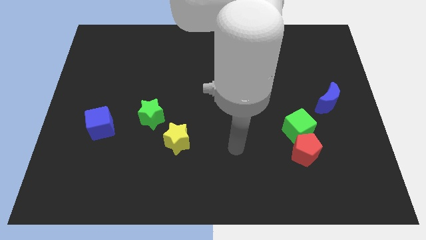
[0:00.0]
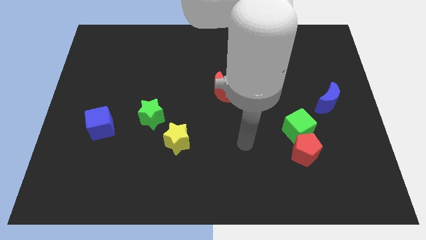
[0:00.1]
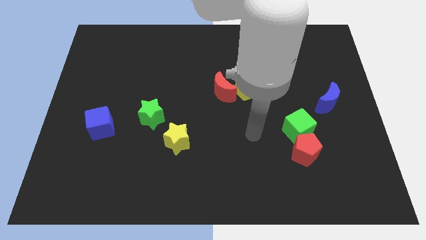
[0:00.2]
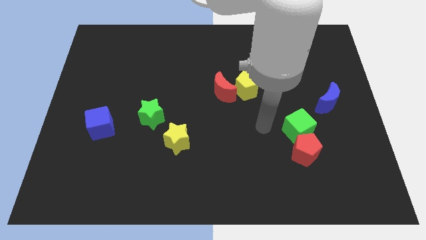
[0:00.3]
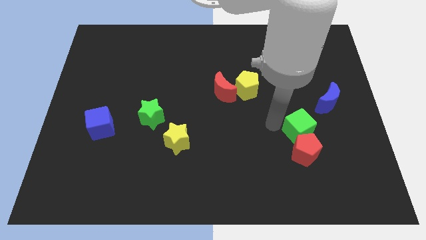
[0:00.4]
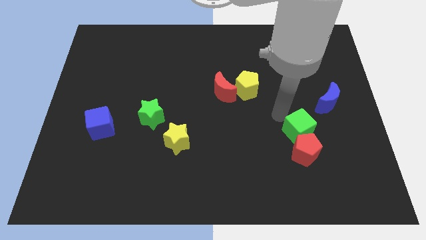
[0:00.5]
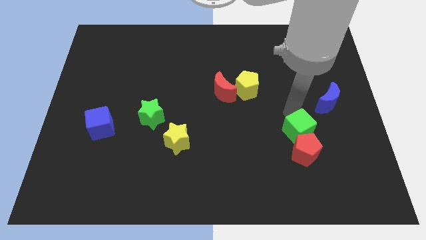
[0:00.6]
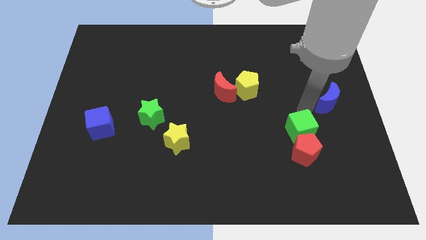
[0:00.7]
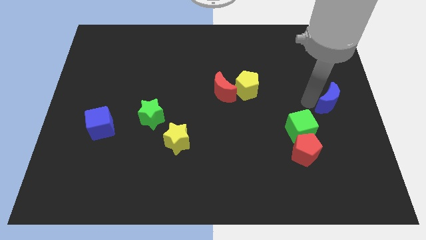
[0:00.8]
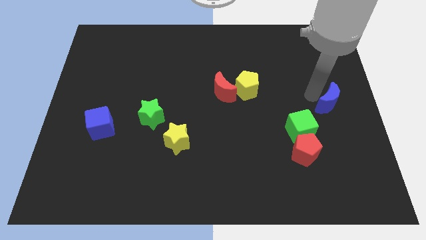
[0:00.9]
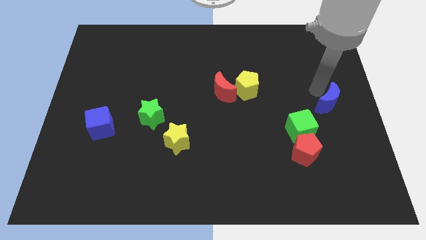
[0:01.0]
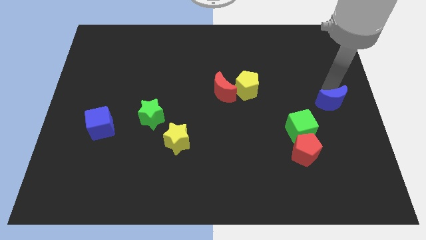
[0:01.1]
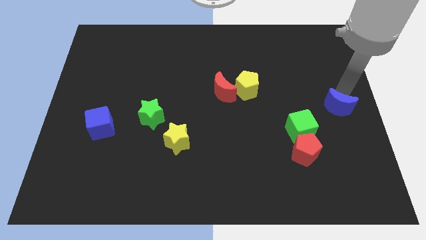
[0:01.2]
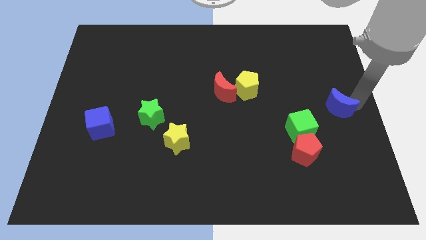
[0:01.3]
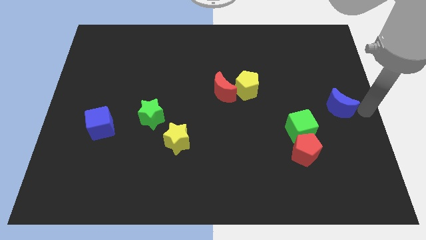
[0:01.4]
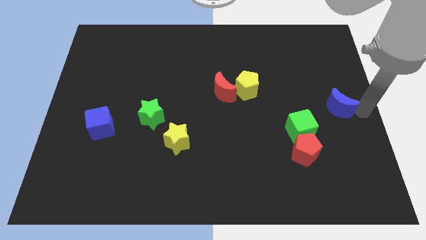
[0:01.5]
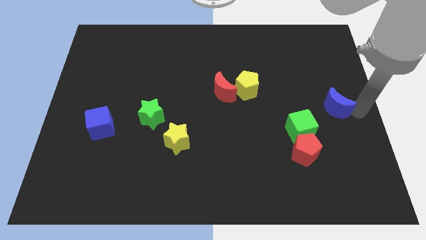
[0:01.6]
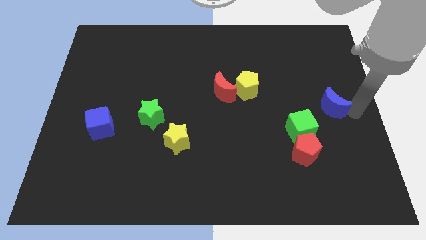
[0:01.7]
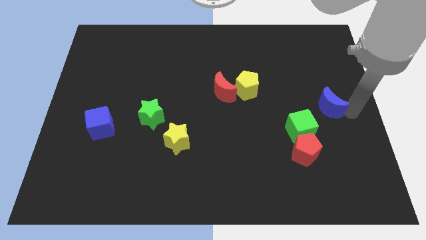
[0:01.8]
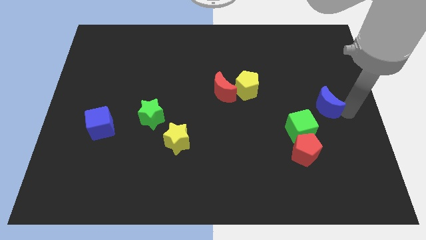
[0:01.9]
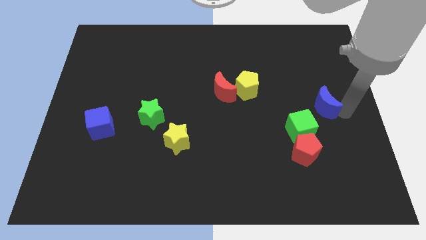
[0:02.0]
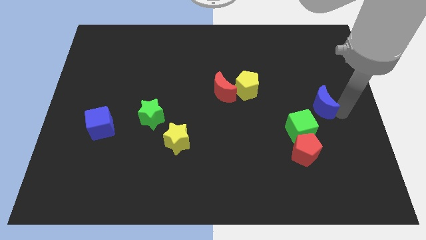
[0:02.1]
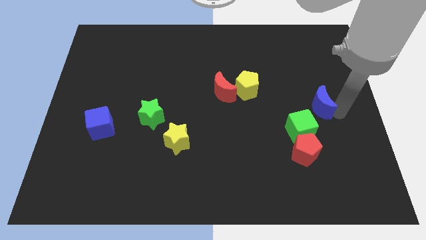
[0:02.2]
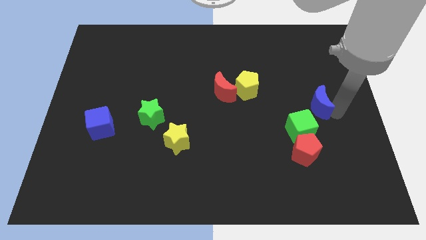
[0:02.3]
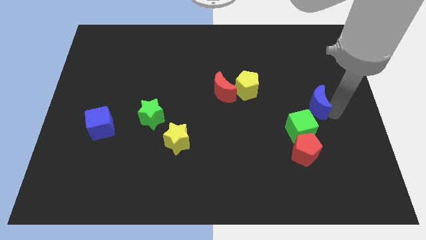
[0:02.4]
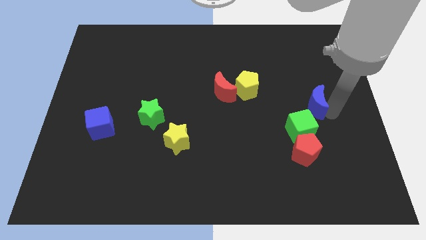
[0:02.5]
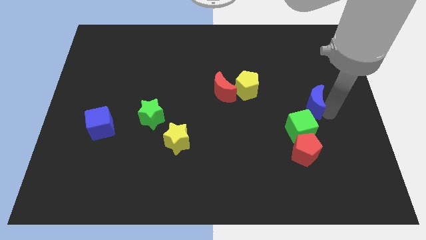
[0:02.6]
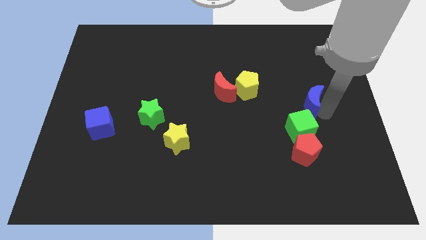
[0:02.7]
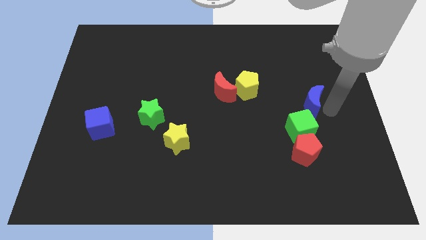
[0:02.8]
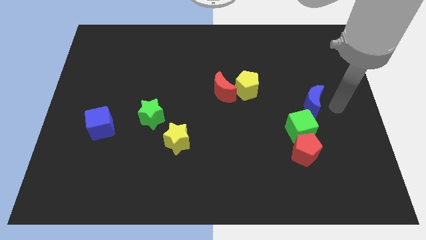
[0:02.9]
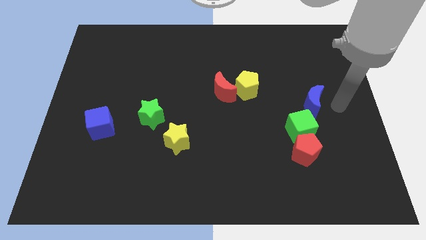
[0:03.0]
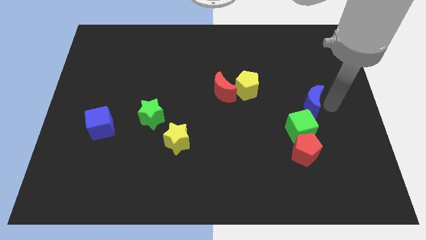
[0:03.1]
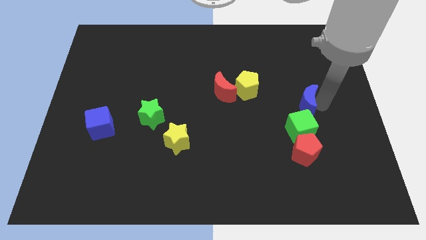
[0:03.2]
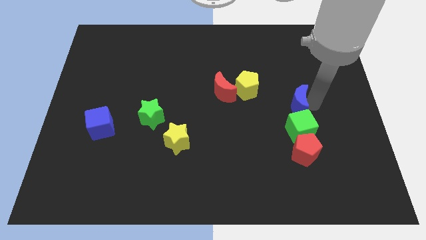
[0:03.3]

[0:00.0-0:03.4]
slightly move the blue moon left

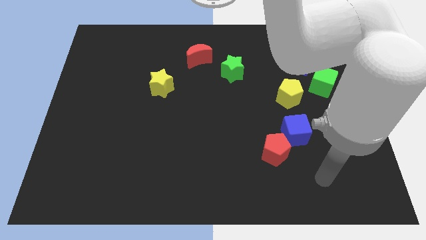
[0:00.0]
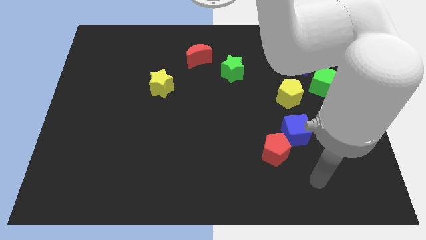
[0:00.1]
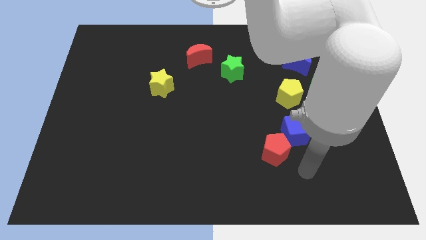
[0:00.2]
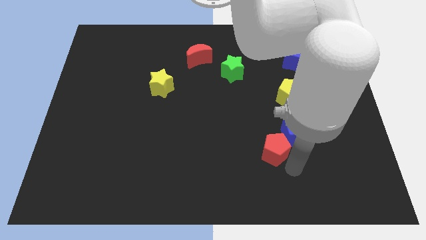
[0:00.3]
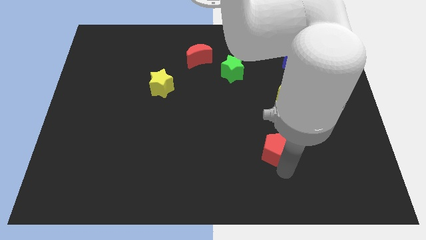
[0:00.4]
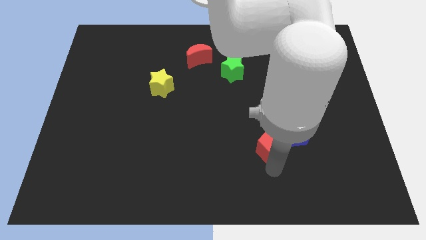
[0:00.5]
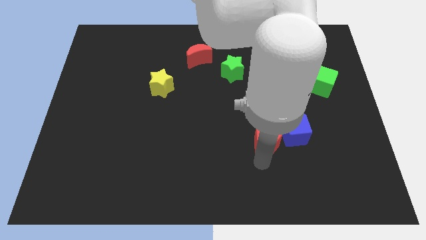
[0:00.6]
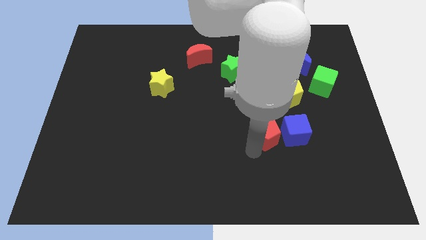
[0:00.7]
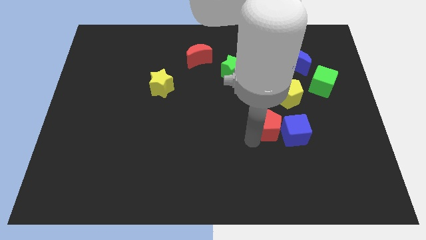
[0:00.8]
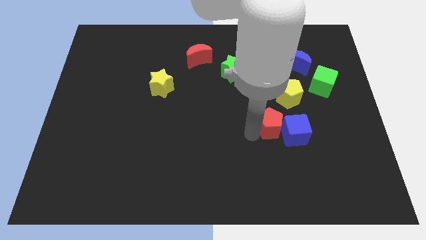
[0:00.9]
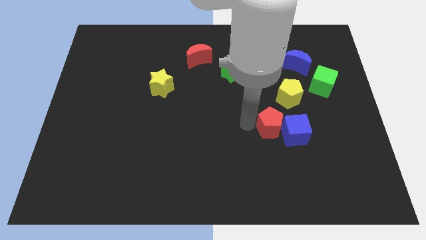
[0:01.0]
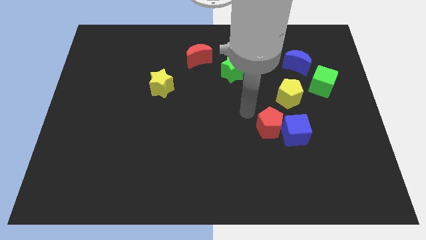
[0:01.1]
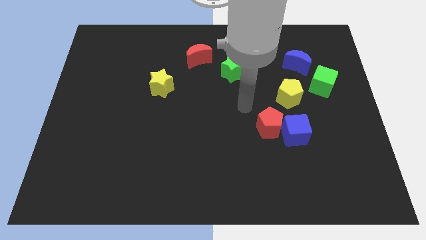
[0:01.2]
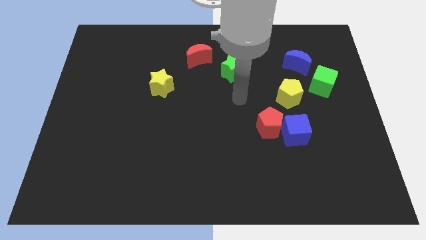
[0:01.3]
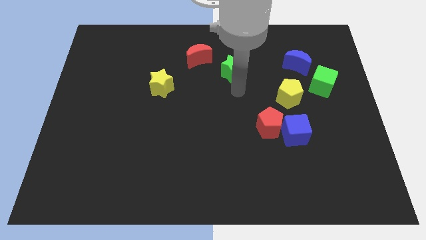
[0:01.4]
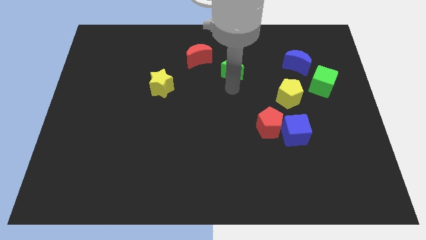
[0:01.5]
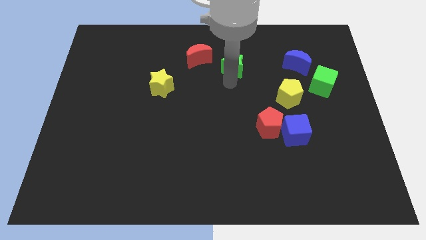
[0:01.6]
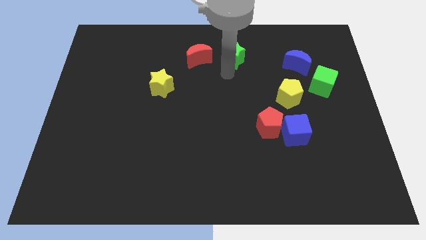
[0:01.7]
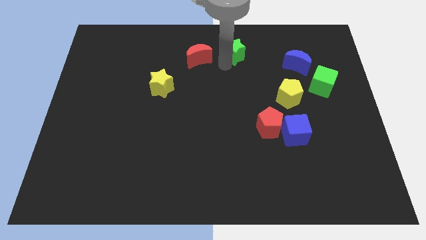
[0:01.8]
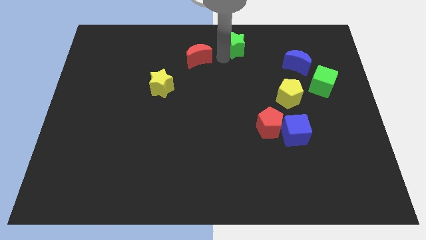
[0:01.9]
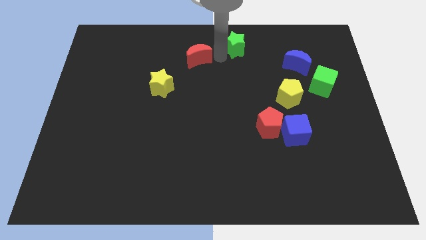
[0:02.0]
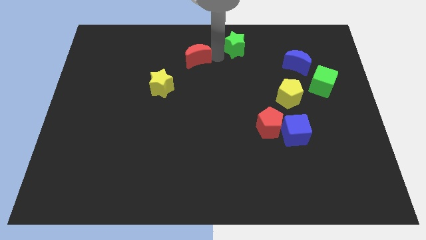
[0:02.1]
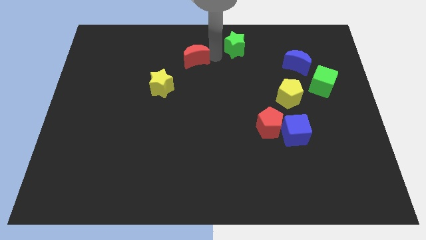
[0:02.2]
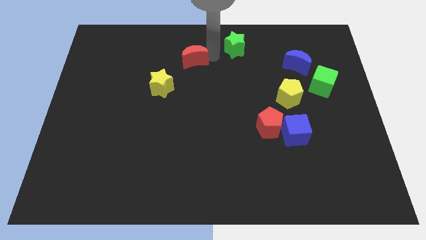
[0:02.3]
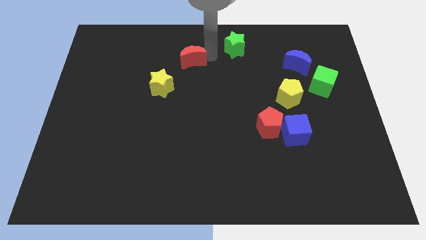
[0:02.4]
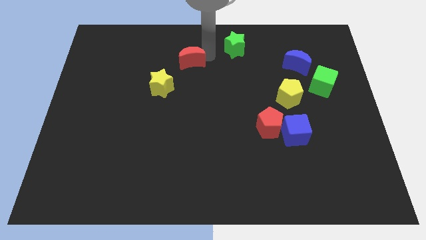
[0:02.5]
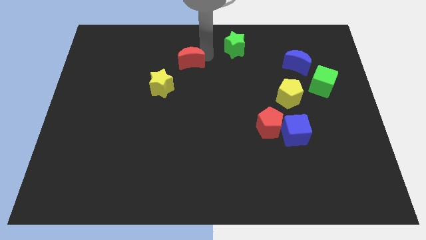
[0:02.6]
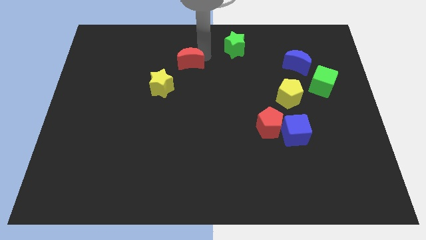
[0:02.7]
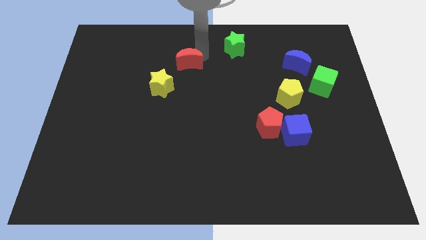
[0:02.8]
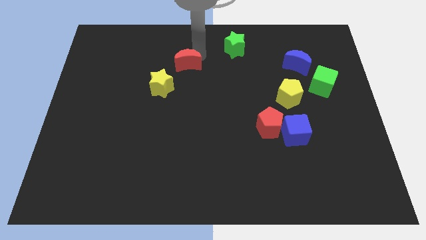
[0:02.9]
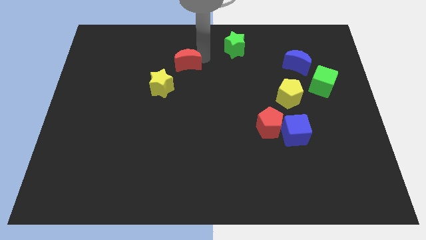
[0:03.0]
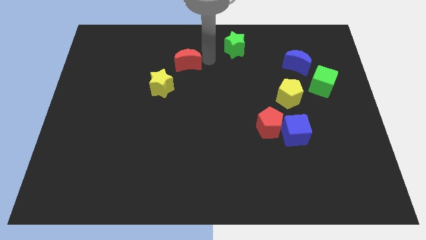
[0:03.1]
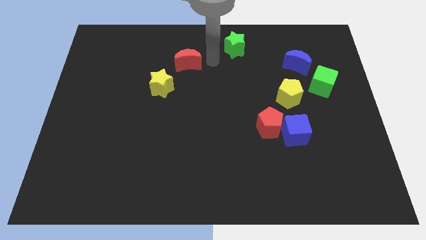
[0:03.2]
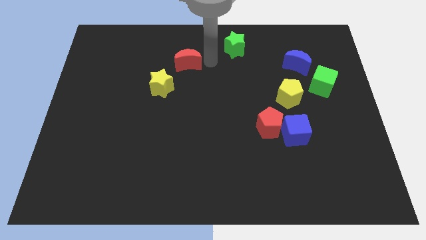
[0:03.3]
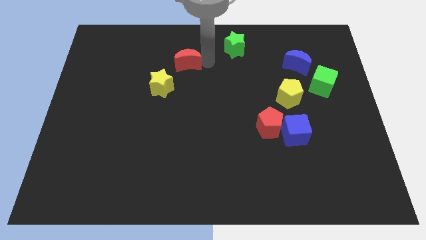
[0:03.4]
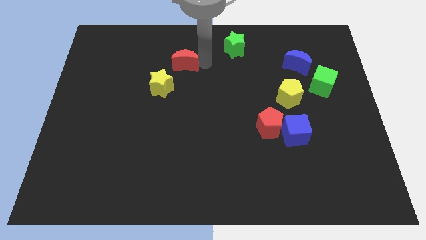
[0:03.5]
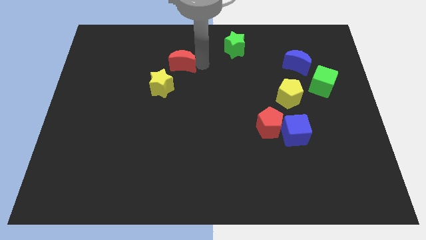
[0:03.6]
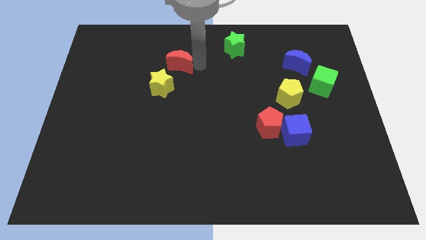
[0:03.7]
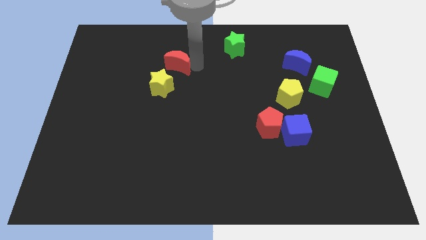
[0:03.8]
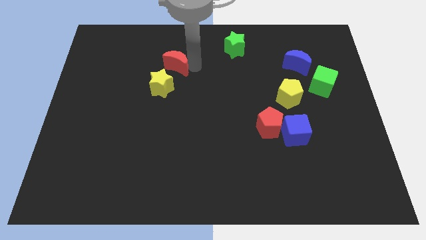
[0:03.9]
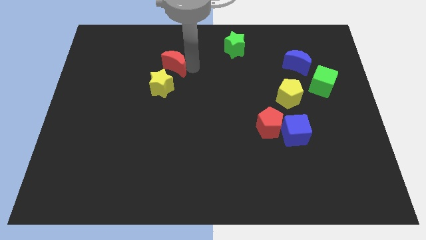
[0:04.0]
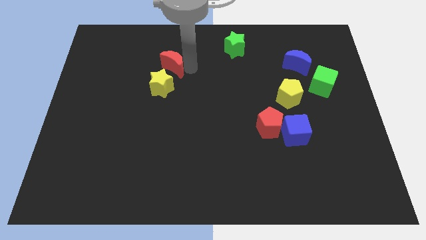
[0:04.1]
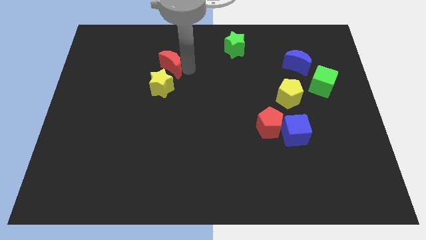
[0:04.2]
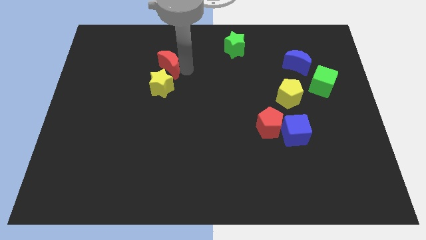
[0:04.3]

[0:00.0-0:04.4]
slightly push the red moon diagonally downwards and left
